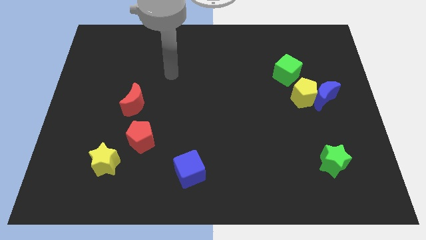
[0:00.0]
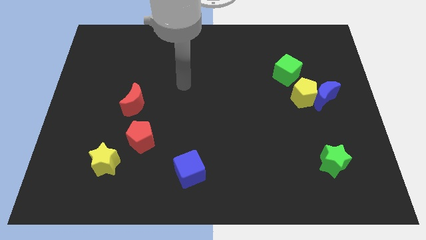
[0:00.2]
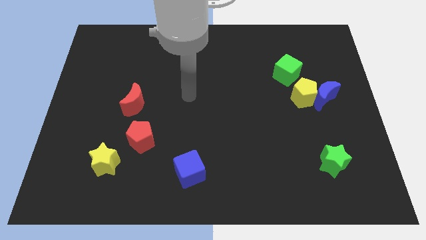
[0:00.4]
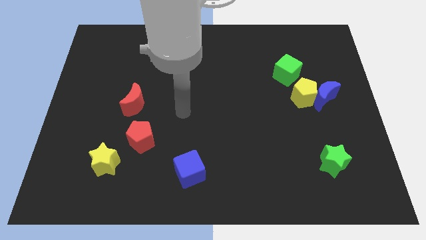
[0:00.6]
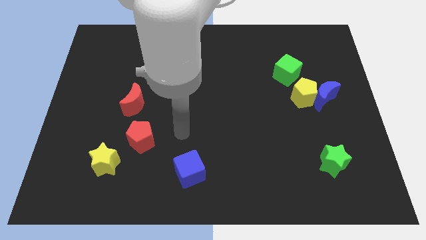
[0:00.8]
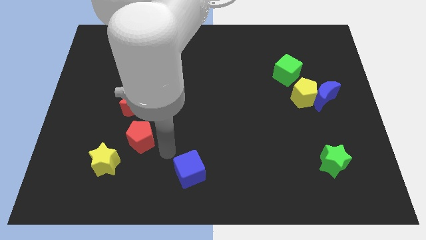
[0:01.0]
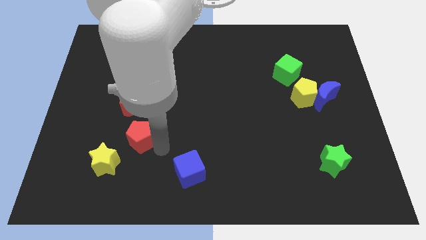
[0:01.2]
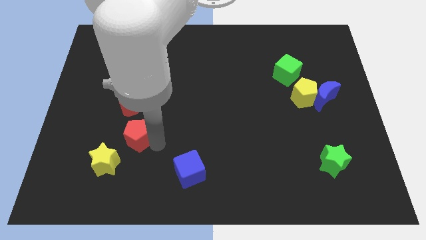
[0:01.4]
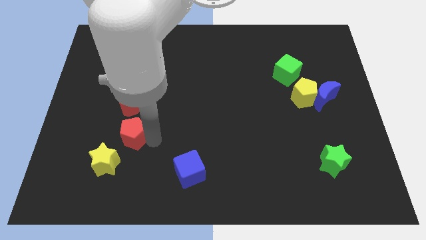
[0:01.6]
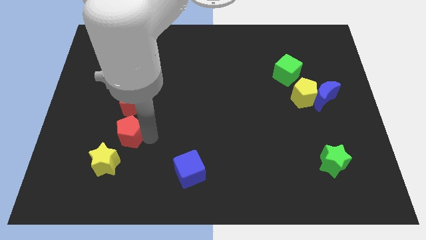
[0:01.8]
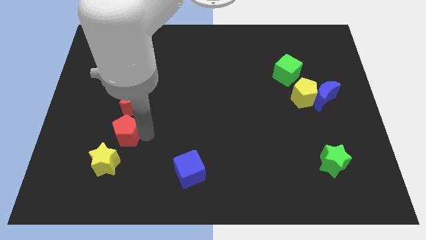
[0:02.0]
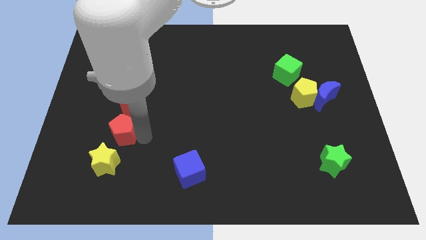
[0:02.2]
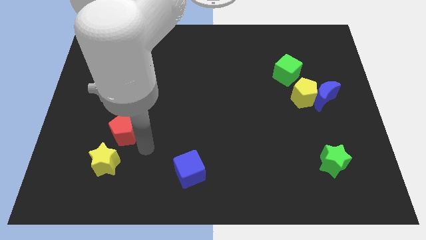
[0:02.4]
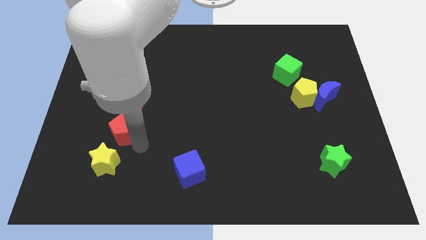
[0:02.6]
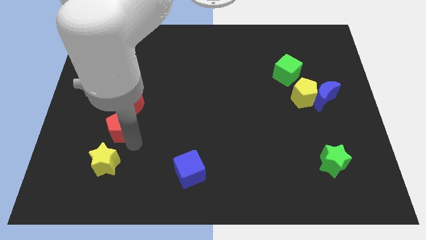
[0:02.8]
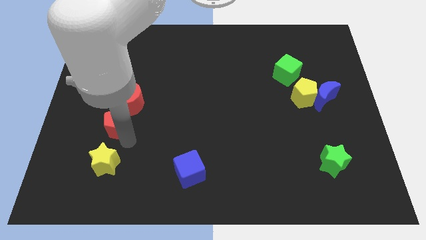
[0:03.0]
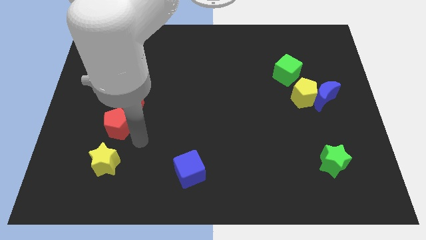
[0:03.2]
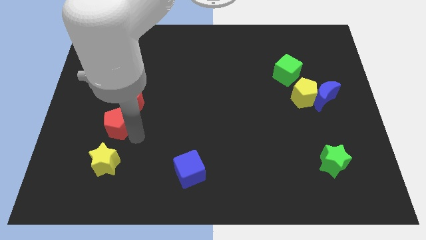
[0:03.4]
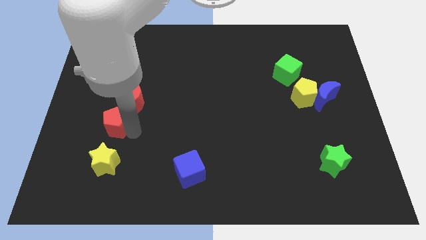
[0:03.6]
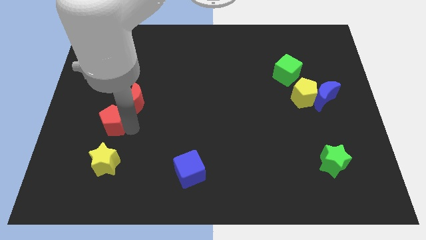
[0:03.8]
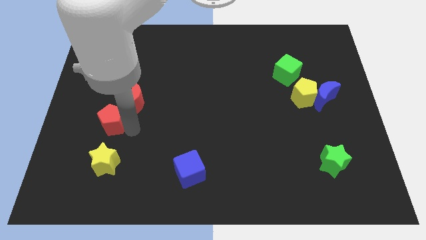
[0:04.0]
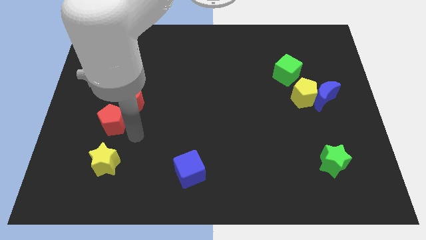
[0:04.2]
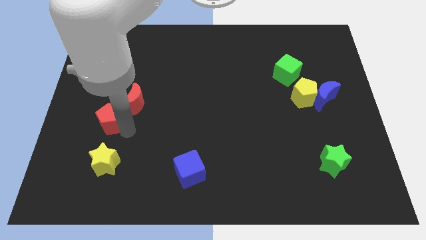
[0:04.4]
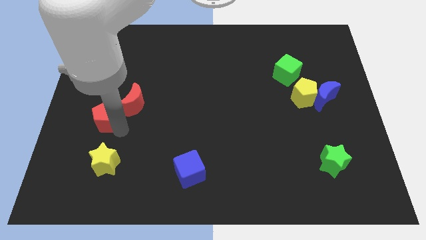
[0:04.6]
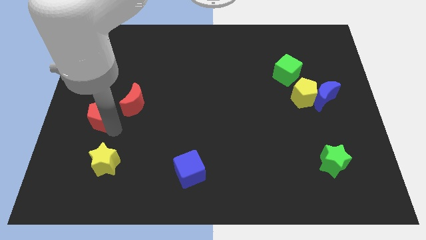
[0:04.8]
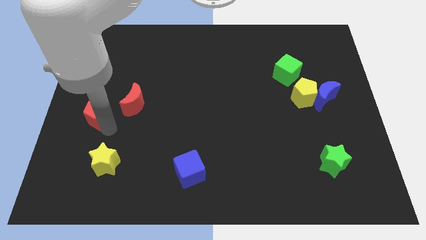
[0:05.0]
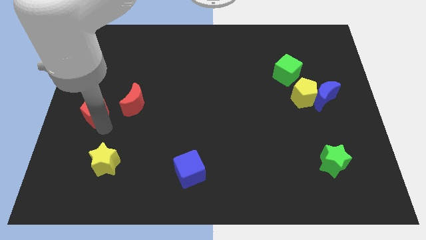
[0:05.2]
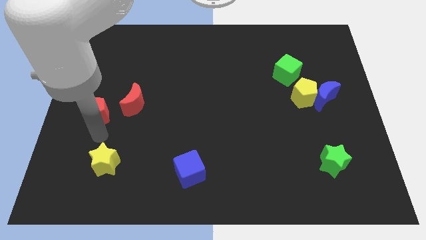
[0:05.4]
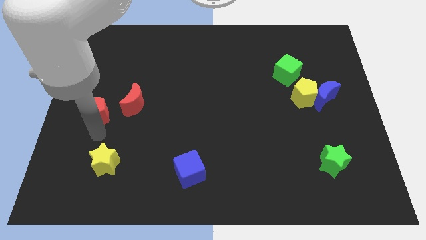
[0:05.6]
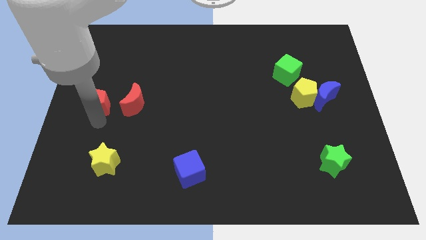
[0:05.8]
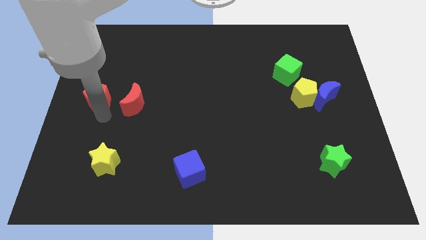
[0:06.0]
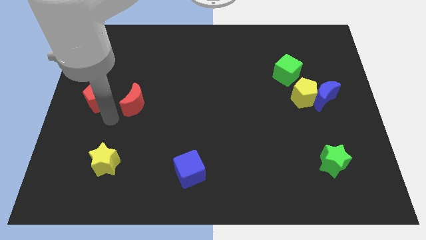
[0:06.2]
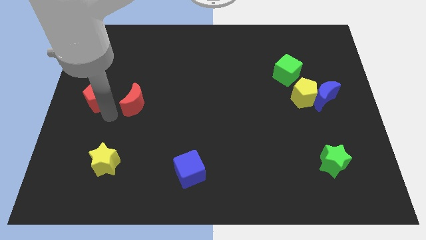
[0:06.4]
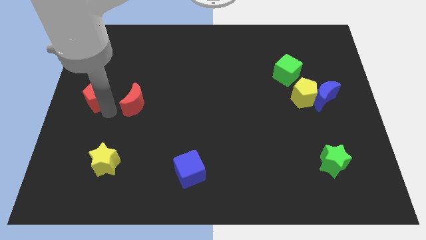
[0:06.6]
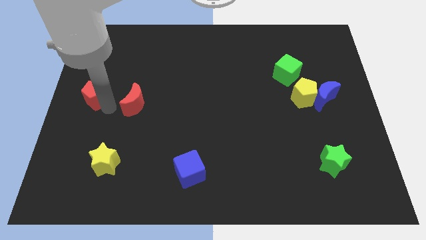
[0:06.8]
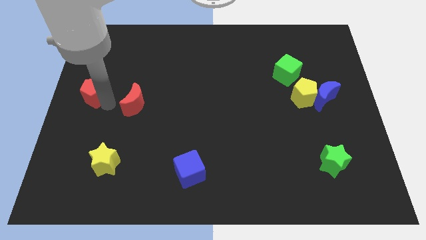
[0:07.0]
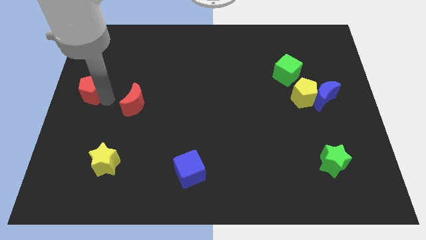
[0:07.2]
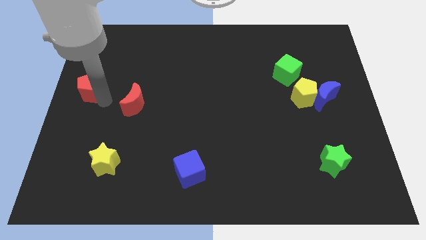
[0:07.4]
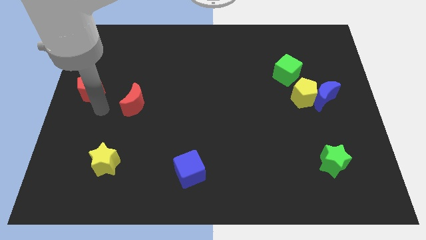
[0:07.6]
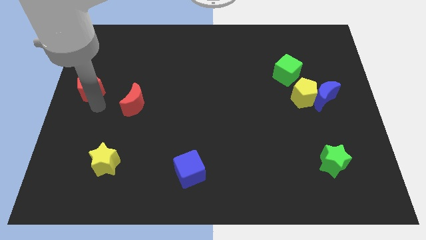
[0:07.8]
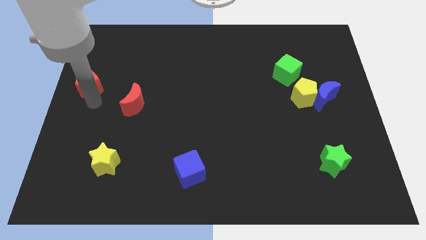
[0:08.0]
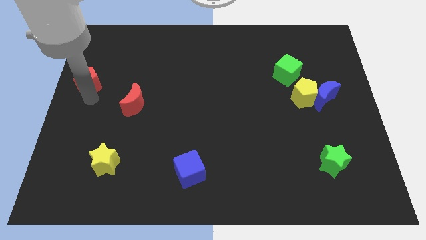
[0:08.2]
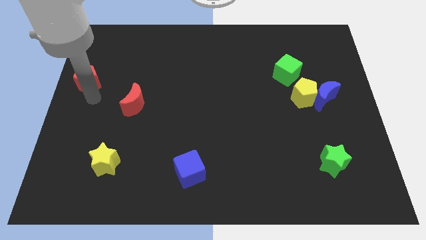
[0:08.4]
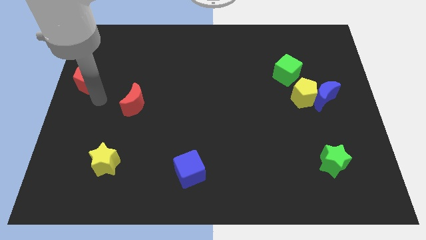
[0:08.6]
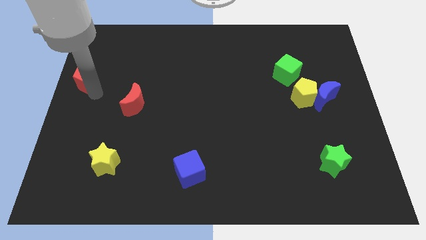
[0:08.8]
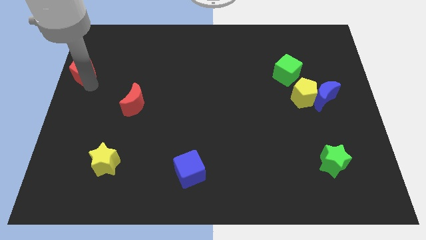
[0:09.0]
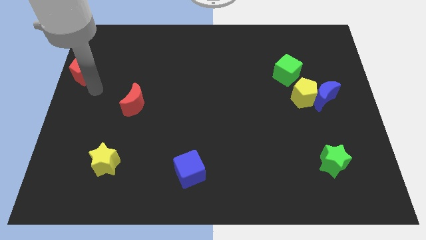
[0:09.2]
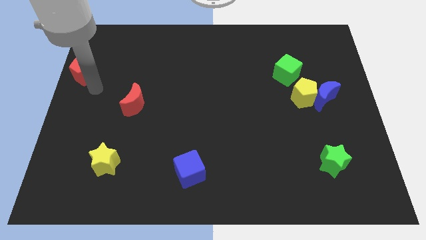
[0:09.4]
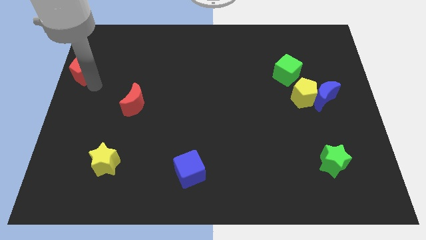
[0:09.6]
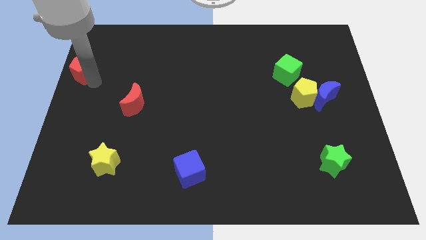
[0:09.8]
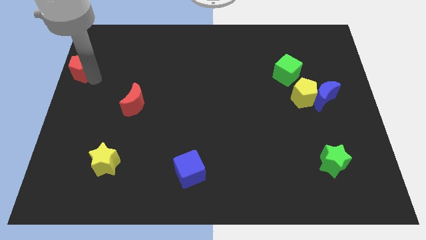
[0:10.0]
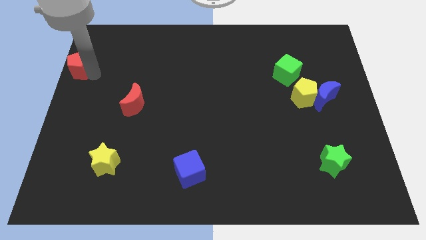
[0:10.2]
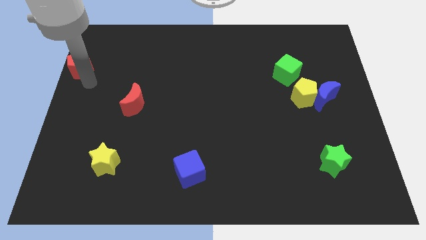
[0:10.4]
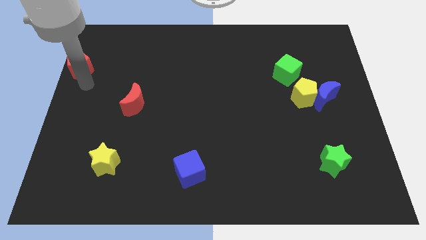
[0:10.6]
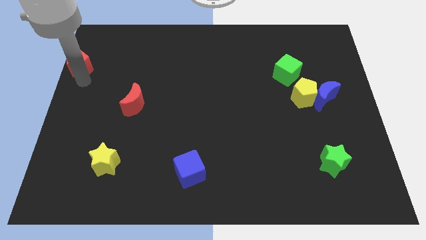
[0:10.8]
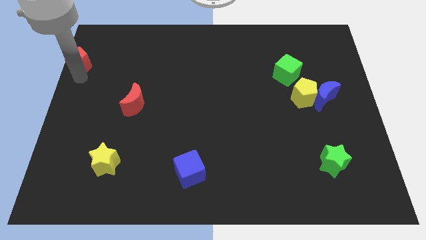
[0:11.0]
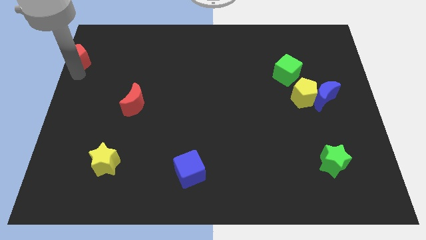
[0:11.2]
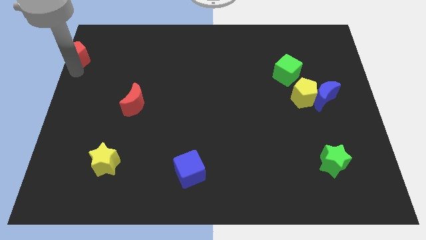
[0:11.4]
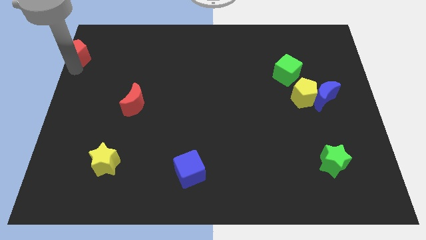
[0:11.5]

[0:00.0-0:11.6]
move the red pentagon to the top left

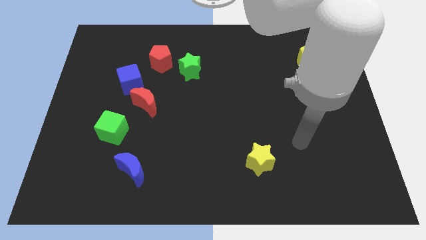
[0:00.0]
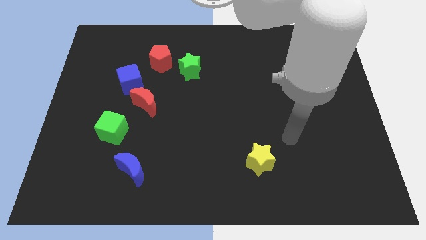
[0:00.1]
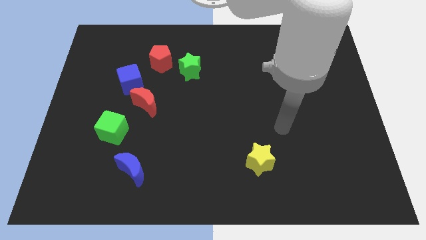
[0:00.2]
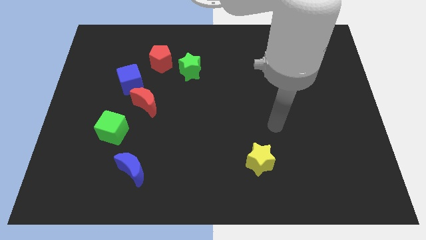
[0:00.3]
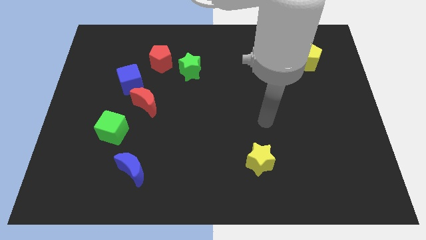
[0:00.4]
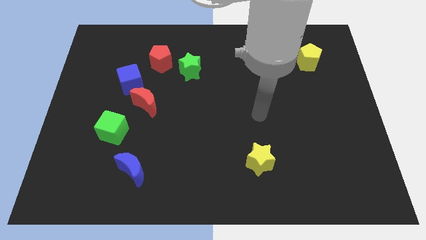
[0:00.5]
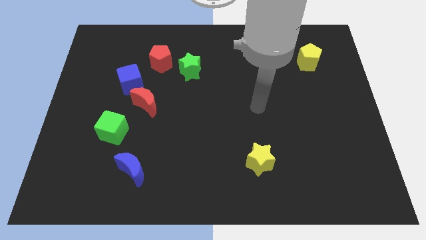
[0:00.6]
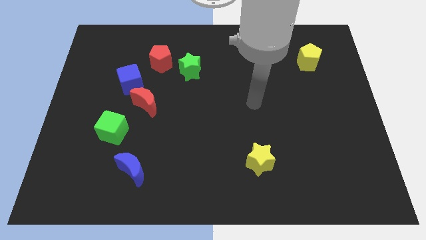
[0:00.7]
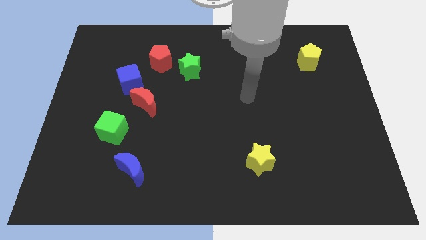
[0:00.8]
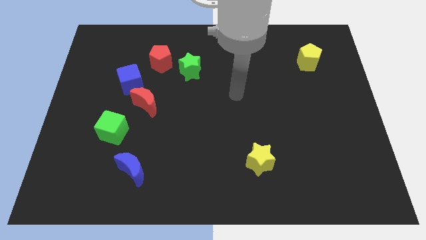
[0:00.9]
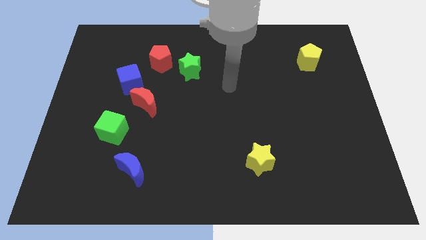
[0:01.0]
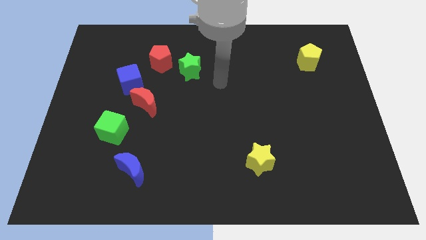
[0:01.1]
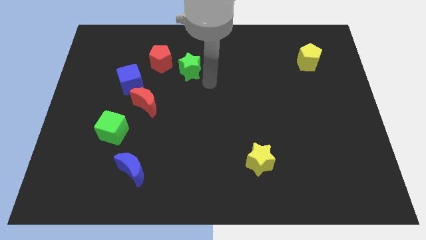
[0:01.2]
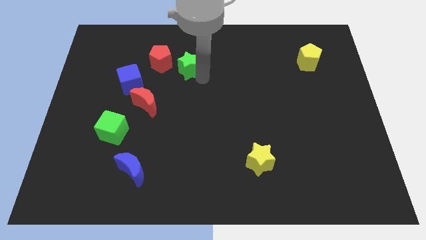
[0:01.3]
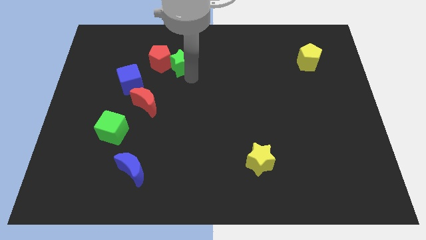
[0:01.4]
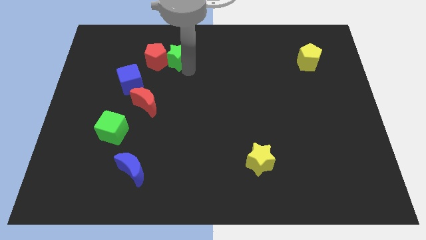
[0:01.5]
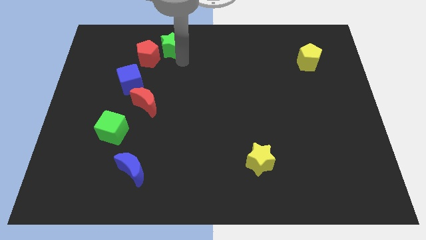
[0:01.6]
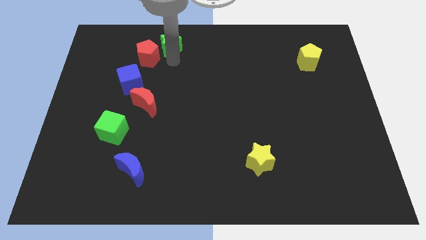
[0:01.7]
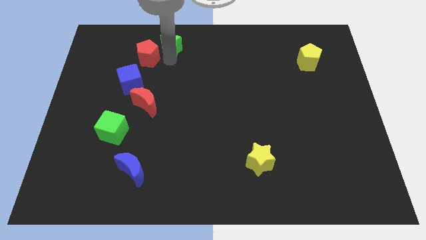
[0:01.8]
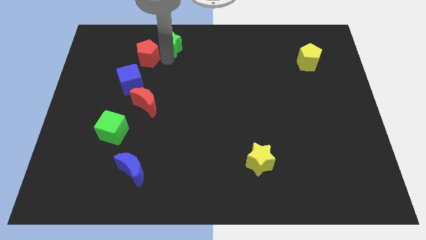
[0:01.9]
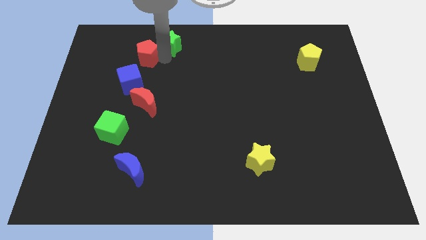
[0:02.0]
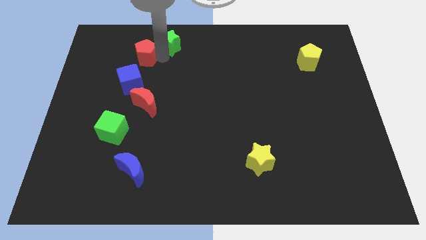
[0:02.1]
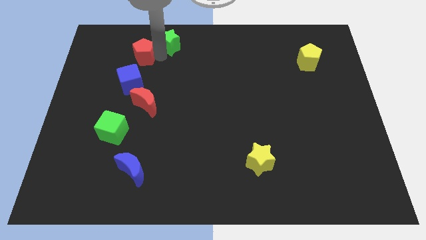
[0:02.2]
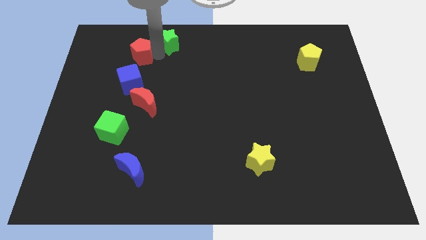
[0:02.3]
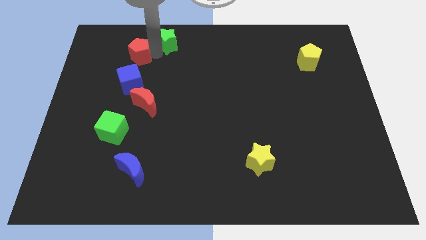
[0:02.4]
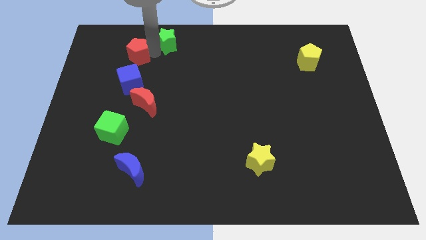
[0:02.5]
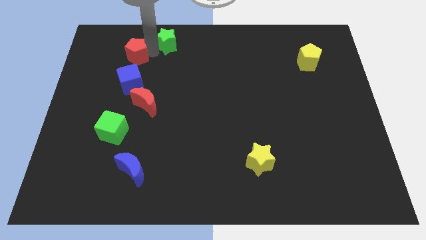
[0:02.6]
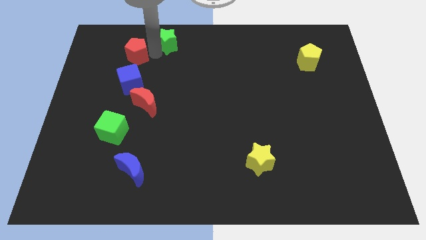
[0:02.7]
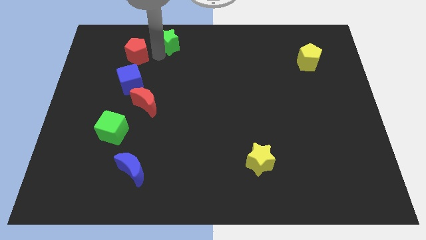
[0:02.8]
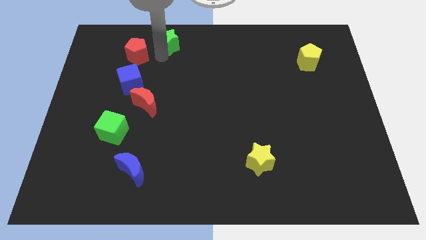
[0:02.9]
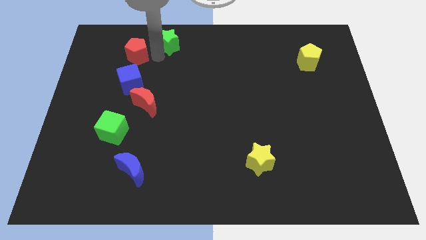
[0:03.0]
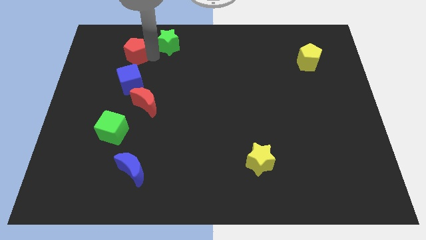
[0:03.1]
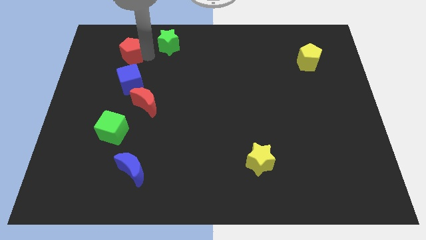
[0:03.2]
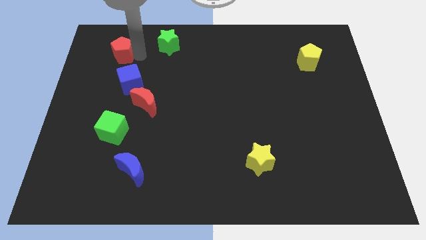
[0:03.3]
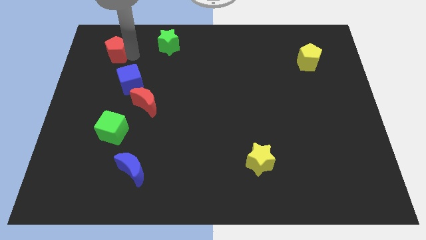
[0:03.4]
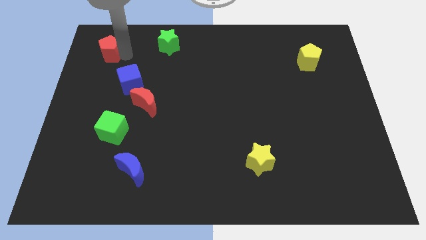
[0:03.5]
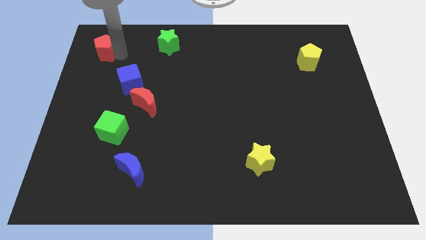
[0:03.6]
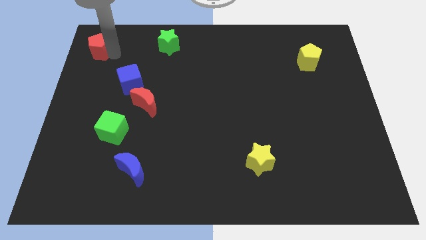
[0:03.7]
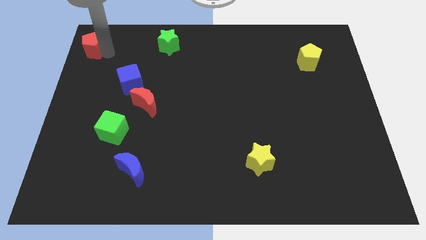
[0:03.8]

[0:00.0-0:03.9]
put the red pentagon to the top left corner
